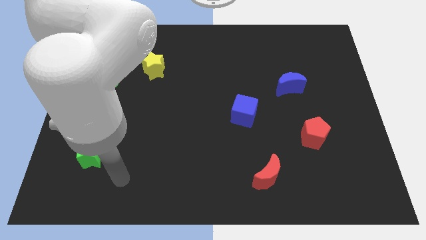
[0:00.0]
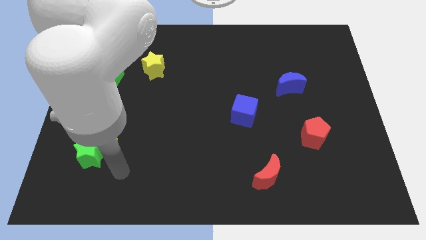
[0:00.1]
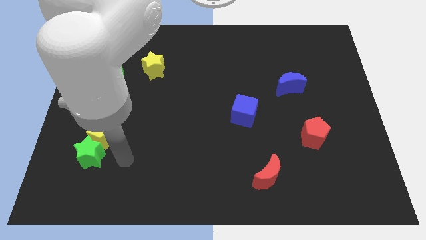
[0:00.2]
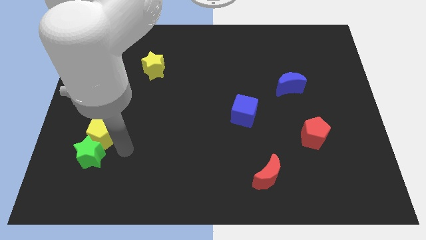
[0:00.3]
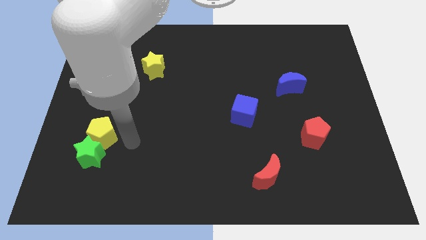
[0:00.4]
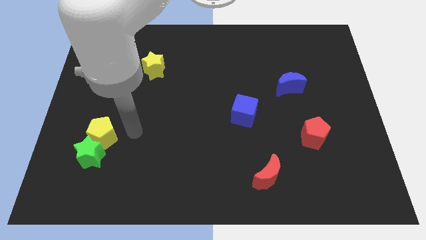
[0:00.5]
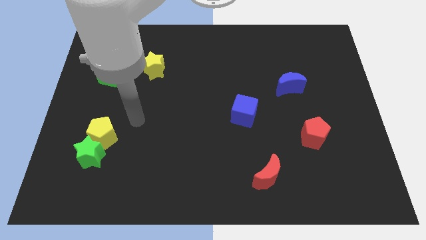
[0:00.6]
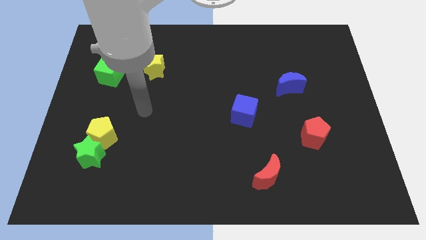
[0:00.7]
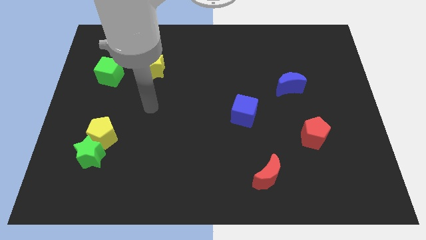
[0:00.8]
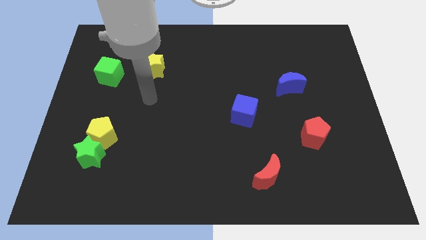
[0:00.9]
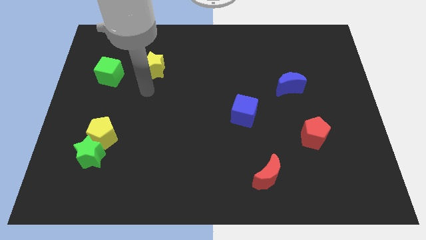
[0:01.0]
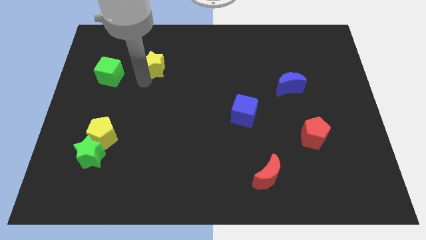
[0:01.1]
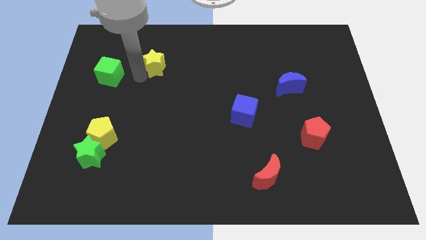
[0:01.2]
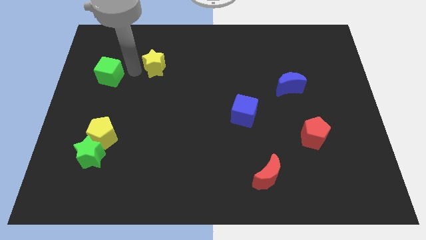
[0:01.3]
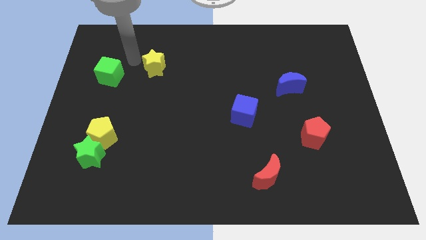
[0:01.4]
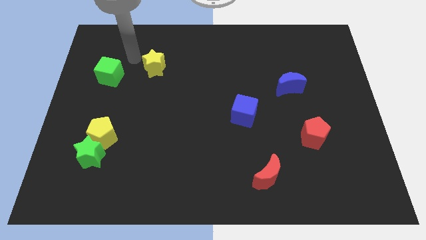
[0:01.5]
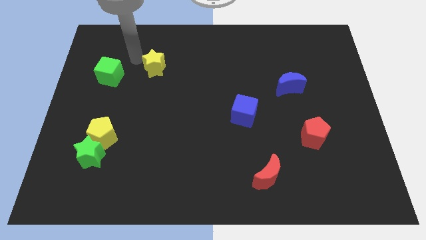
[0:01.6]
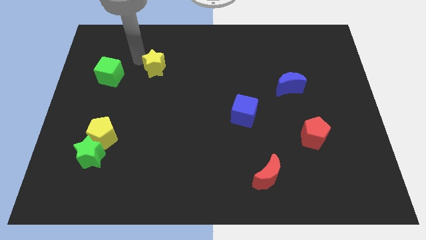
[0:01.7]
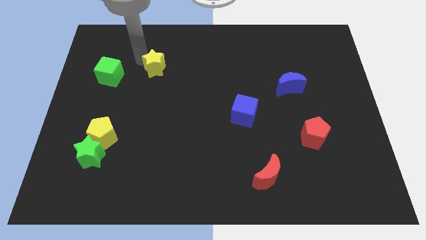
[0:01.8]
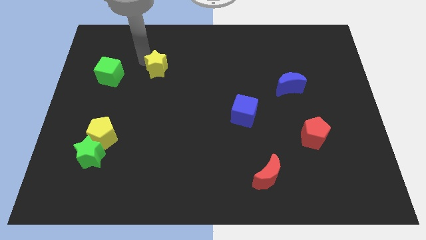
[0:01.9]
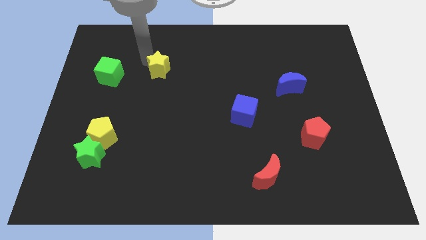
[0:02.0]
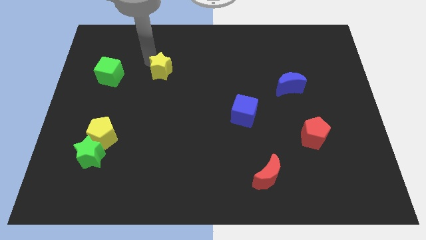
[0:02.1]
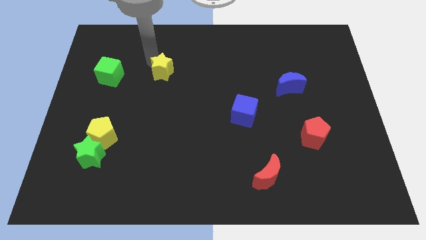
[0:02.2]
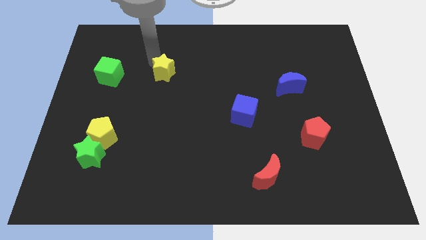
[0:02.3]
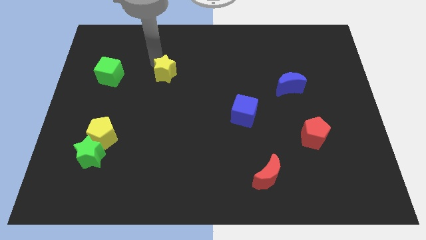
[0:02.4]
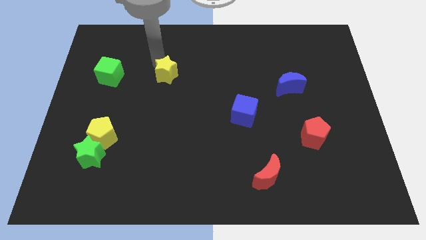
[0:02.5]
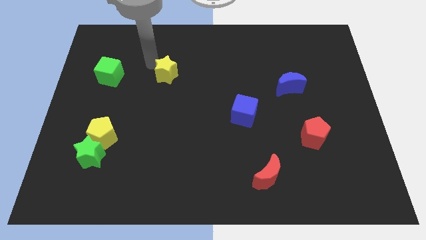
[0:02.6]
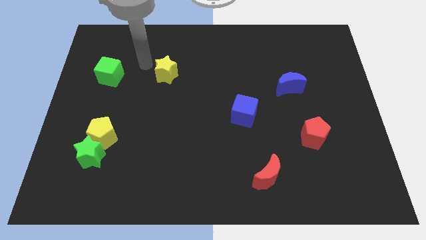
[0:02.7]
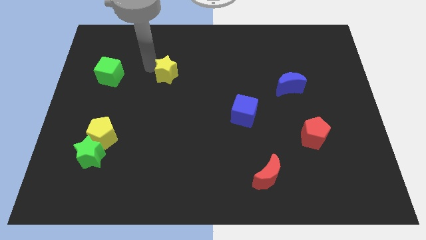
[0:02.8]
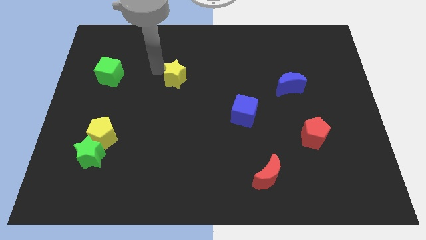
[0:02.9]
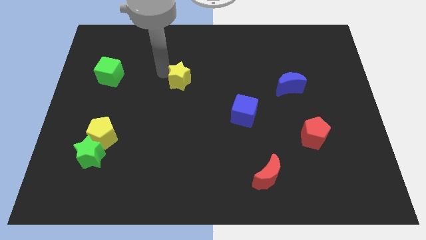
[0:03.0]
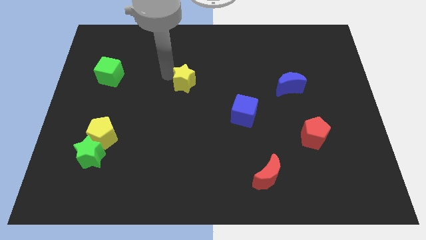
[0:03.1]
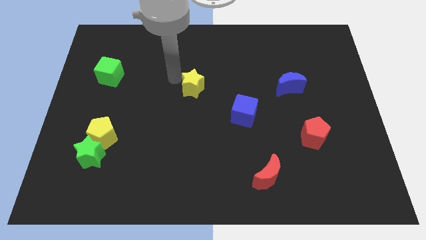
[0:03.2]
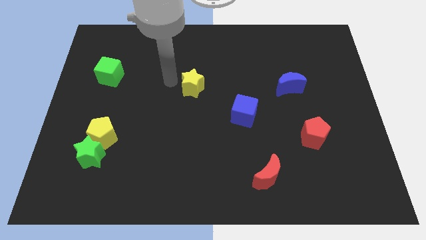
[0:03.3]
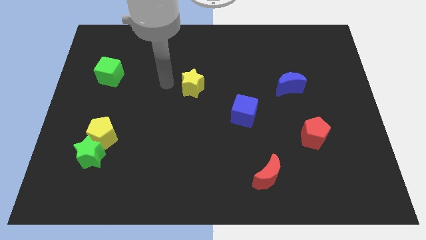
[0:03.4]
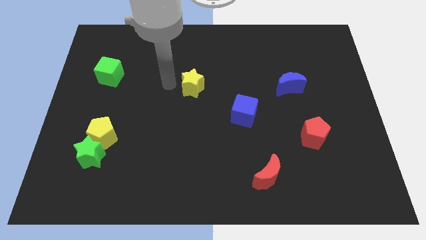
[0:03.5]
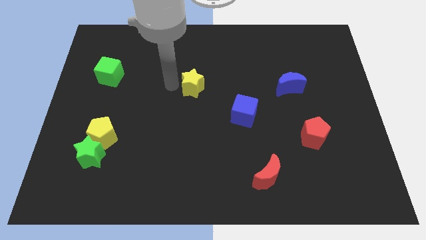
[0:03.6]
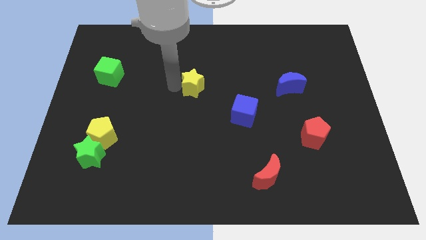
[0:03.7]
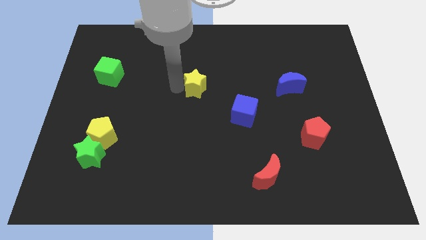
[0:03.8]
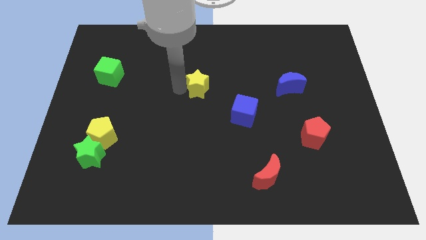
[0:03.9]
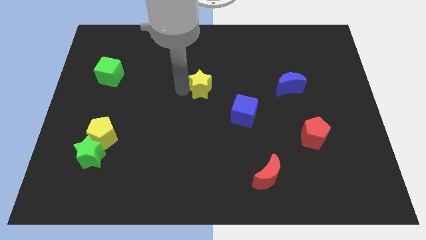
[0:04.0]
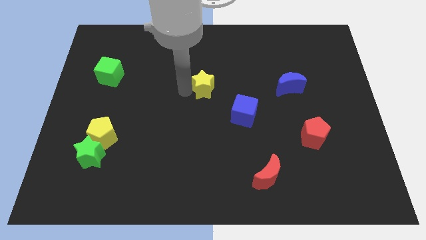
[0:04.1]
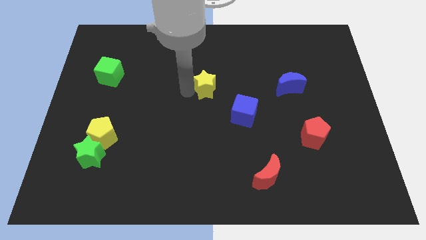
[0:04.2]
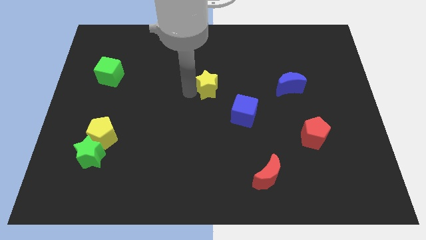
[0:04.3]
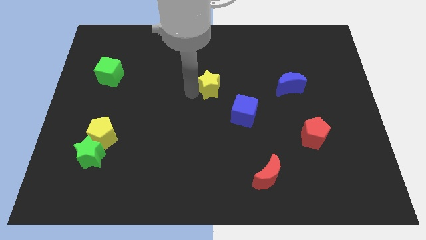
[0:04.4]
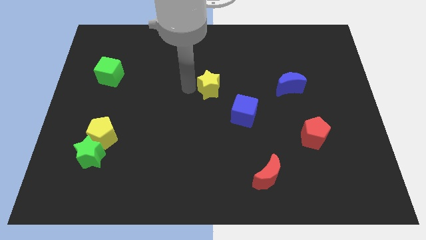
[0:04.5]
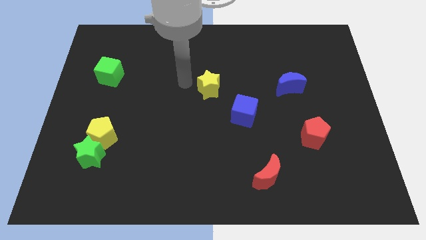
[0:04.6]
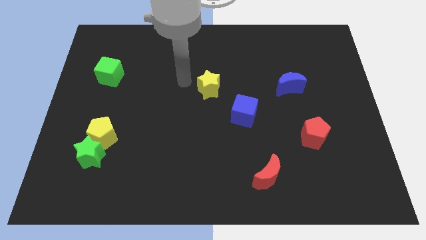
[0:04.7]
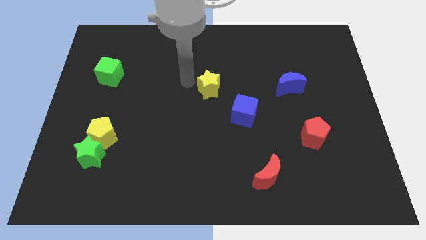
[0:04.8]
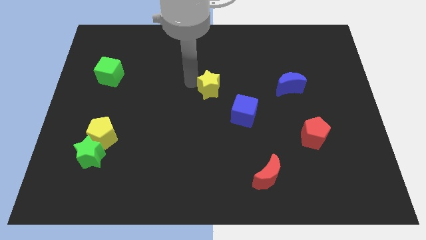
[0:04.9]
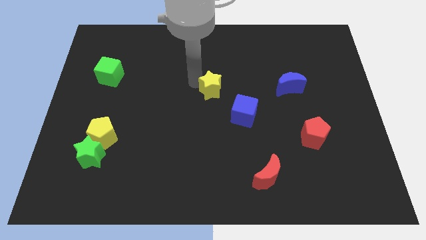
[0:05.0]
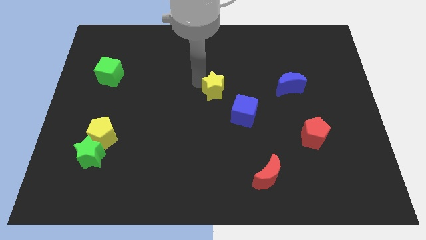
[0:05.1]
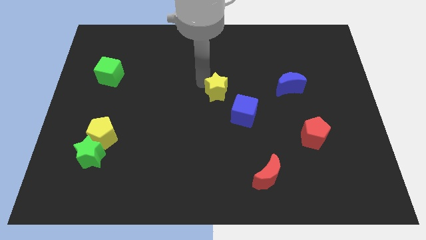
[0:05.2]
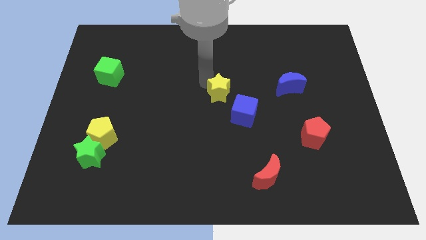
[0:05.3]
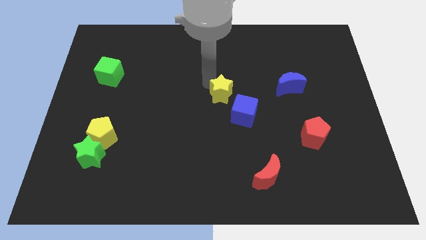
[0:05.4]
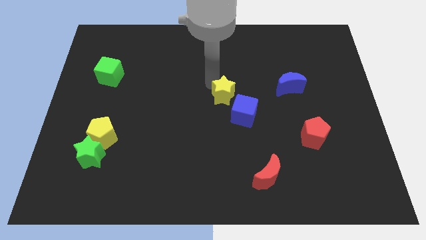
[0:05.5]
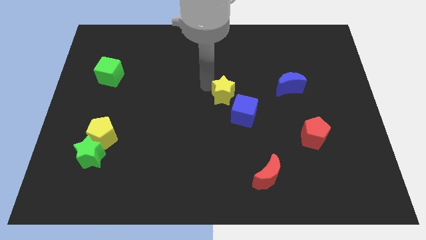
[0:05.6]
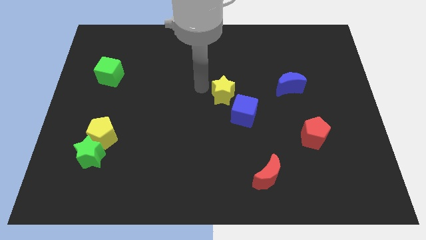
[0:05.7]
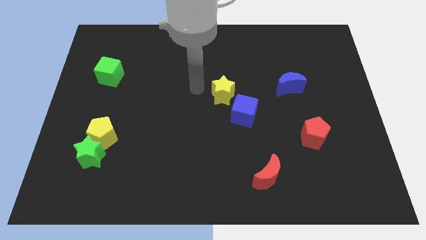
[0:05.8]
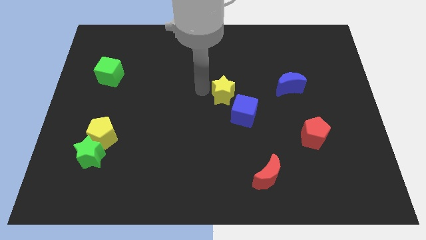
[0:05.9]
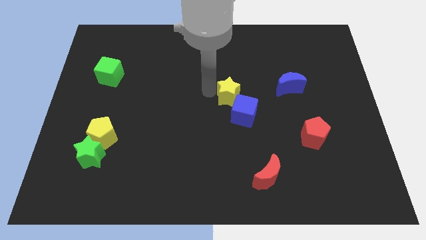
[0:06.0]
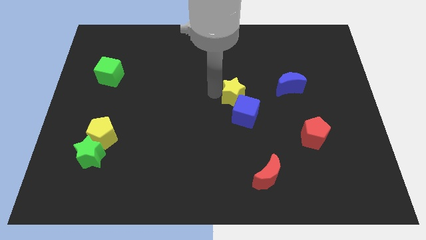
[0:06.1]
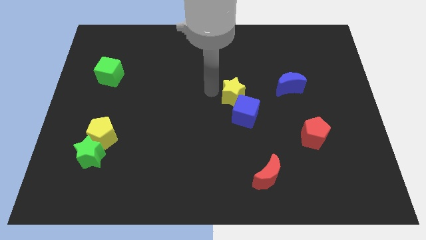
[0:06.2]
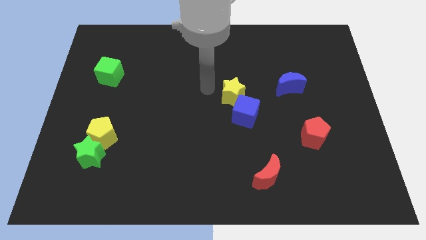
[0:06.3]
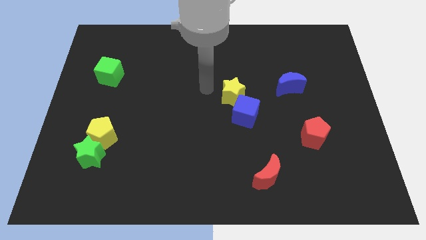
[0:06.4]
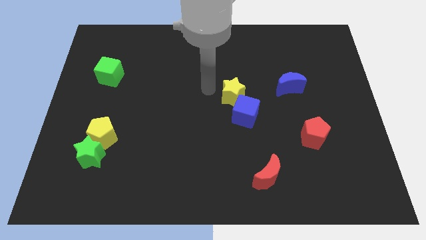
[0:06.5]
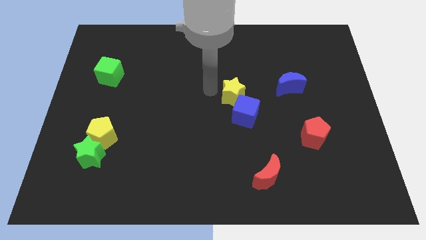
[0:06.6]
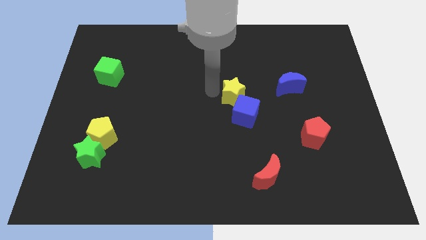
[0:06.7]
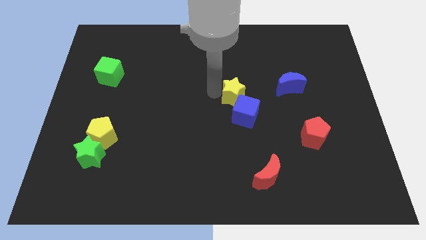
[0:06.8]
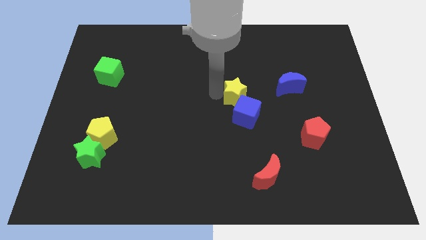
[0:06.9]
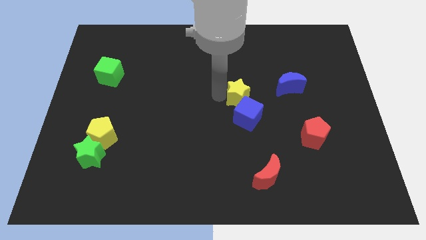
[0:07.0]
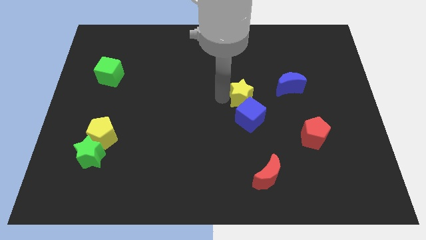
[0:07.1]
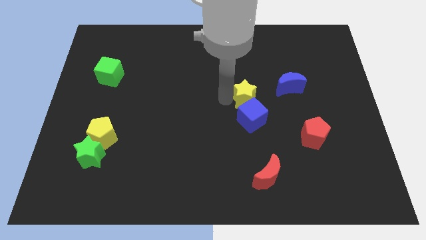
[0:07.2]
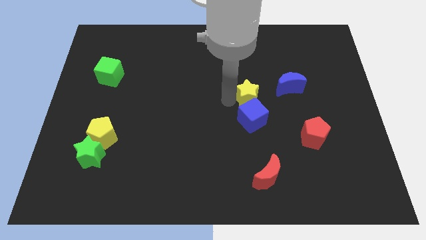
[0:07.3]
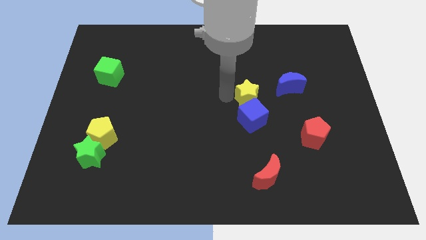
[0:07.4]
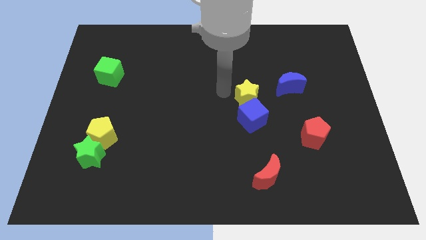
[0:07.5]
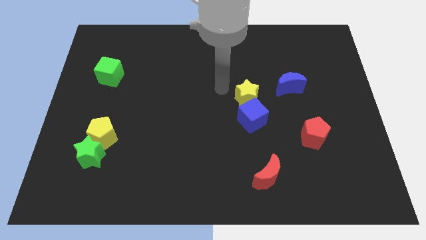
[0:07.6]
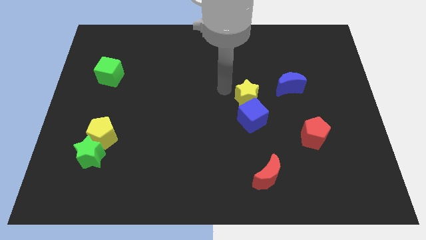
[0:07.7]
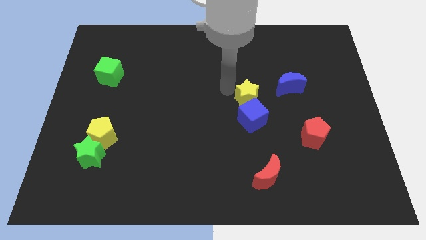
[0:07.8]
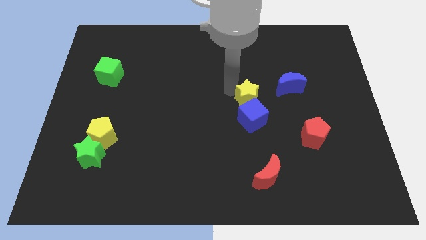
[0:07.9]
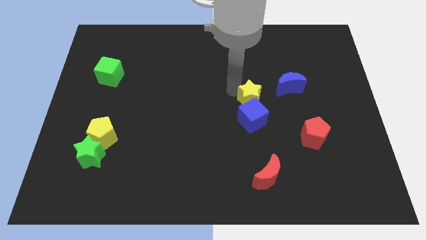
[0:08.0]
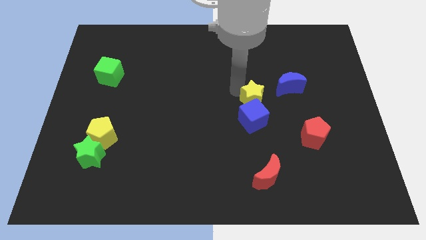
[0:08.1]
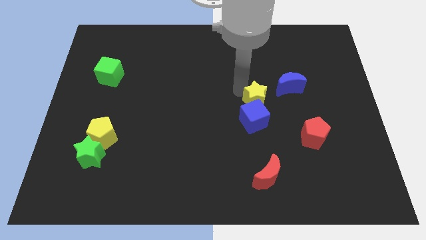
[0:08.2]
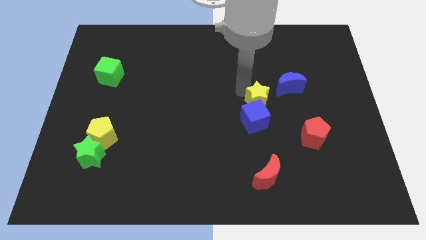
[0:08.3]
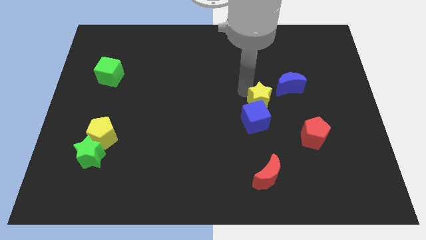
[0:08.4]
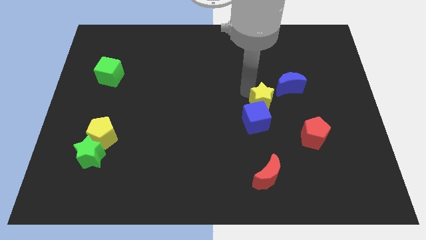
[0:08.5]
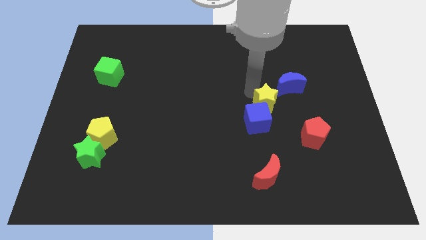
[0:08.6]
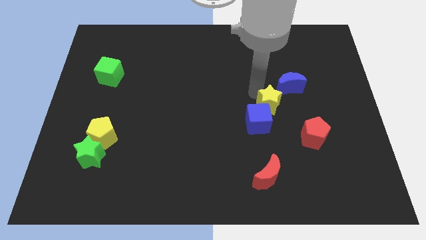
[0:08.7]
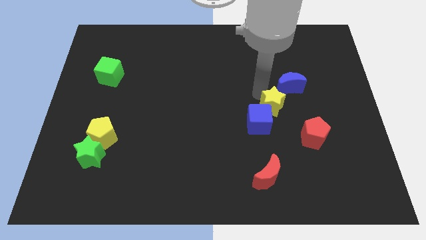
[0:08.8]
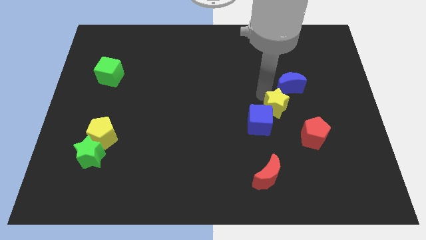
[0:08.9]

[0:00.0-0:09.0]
put the yellow star to the right side of the blue cube
